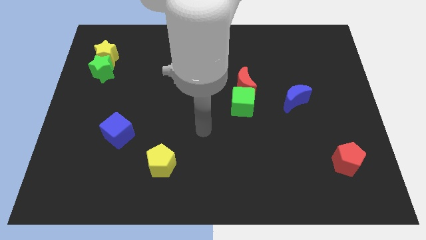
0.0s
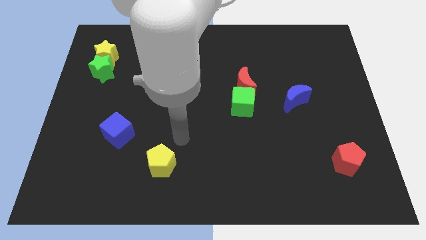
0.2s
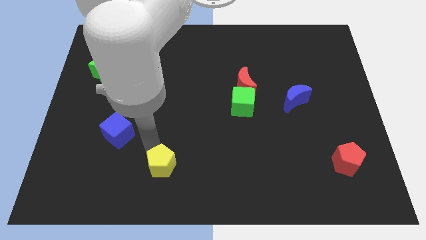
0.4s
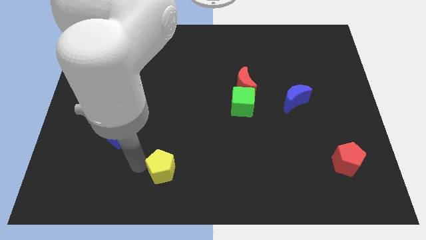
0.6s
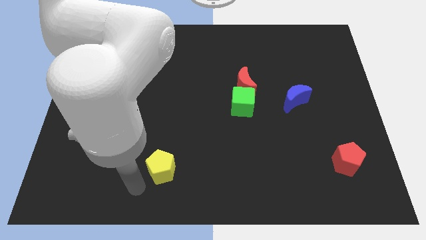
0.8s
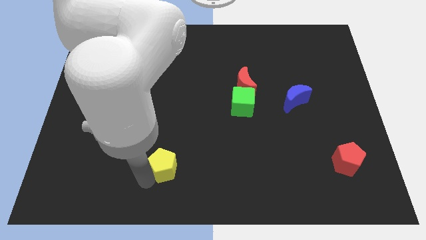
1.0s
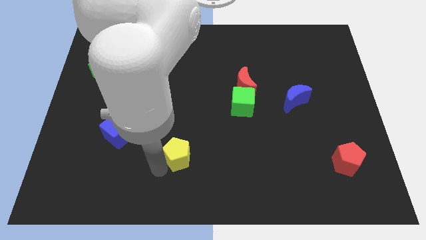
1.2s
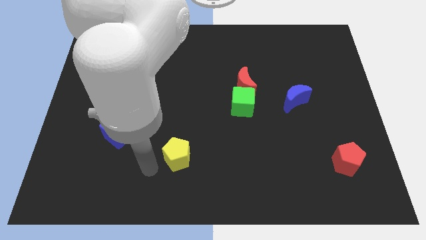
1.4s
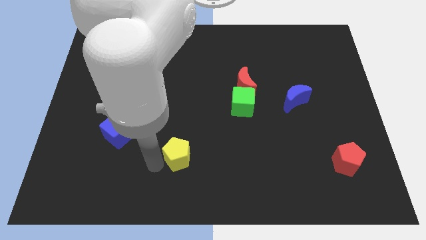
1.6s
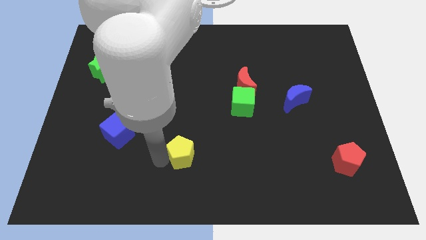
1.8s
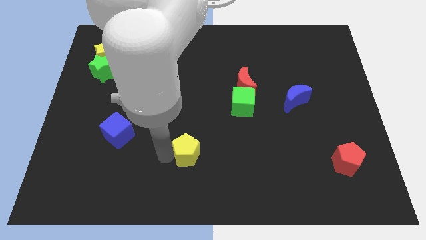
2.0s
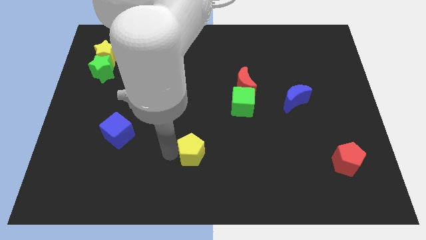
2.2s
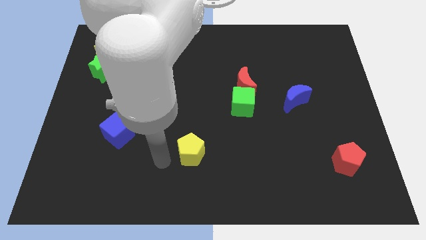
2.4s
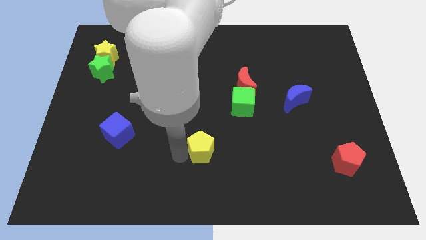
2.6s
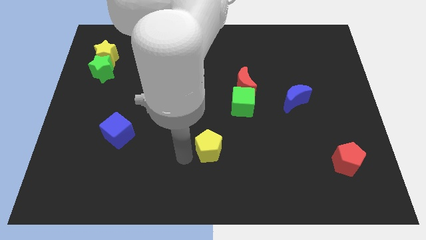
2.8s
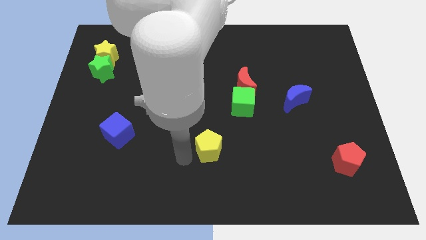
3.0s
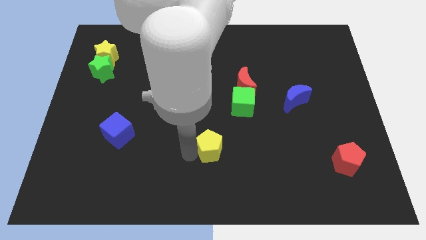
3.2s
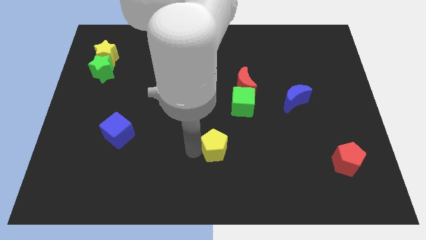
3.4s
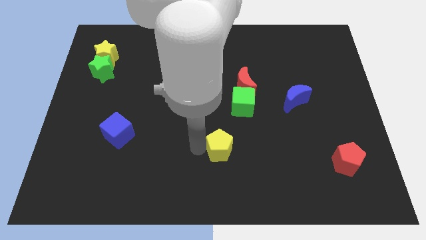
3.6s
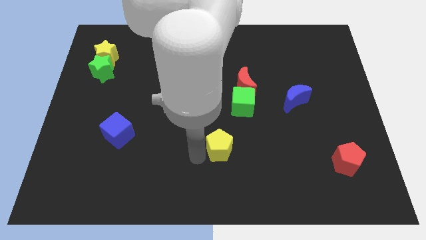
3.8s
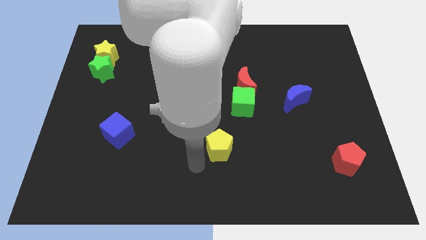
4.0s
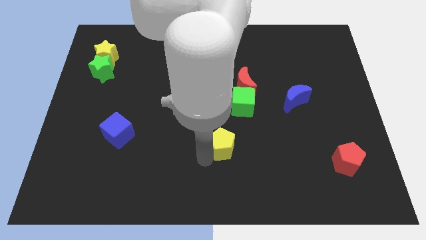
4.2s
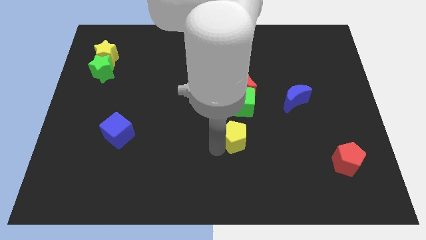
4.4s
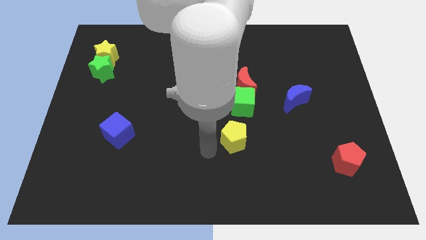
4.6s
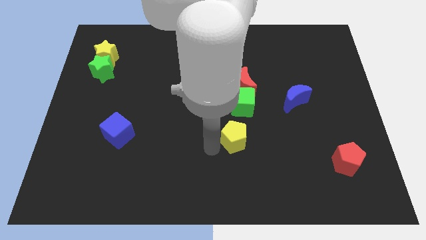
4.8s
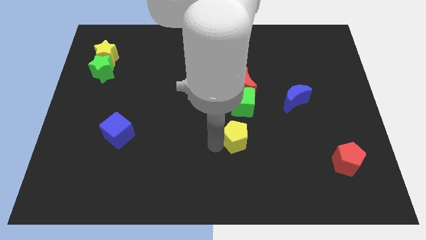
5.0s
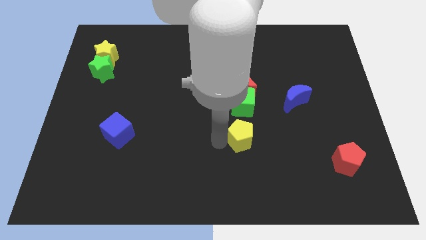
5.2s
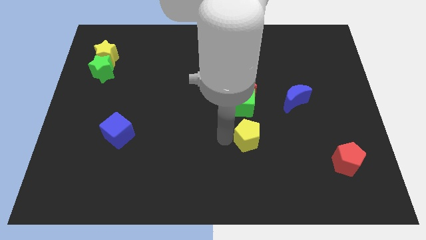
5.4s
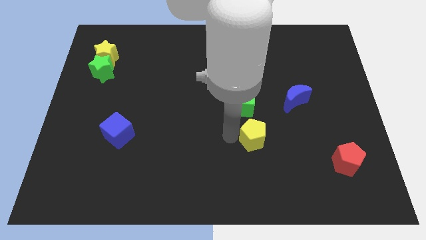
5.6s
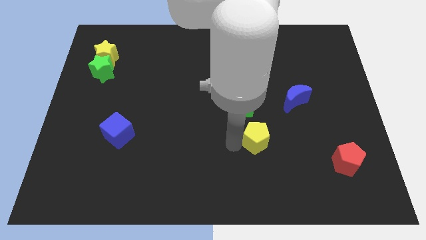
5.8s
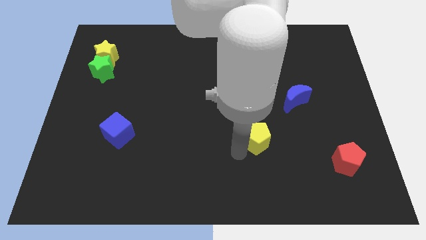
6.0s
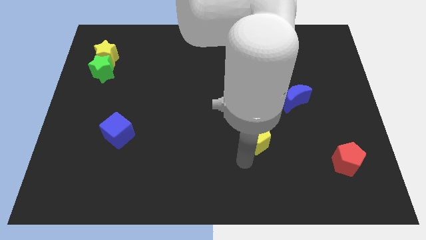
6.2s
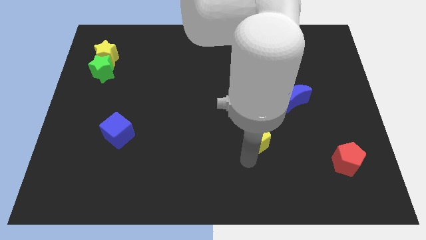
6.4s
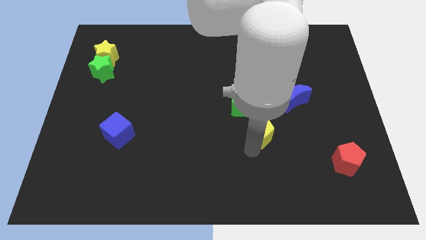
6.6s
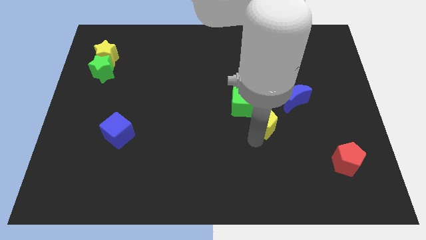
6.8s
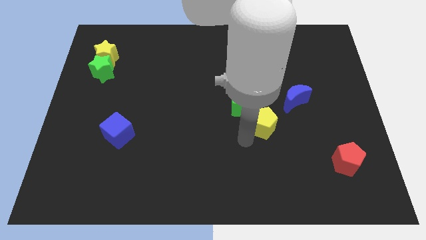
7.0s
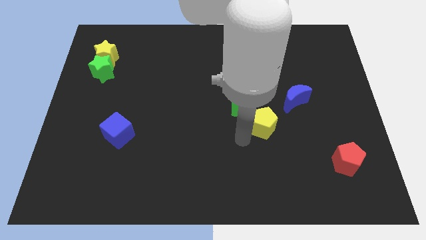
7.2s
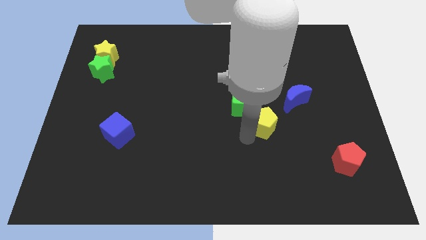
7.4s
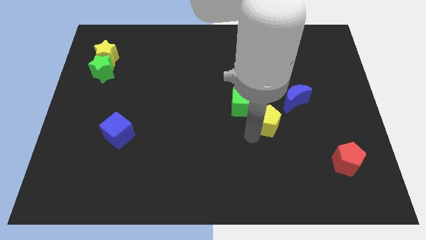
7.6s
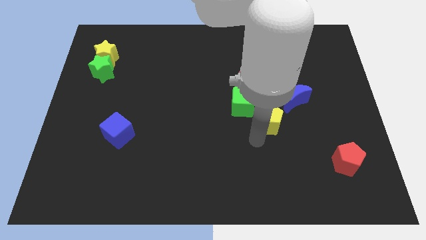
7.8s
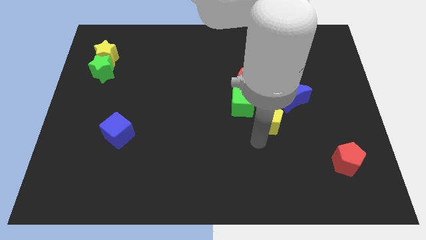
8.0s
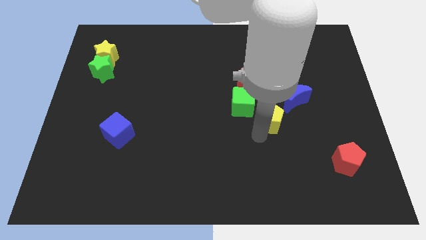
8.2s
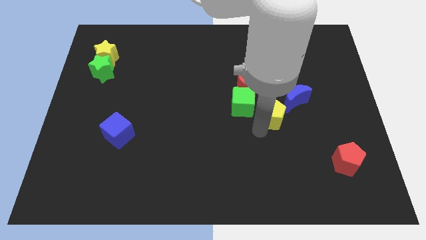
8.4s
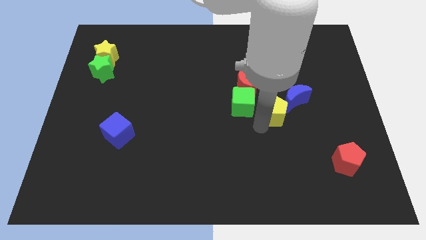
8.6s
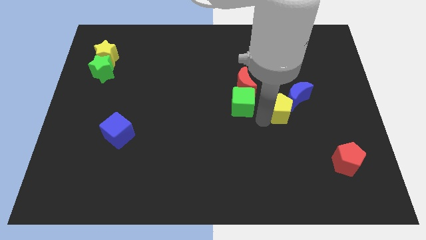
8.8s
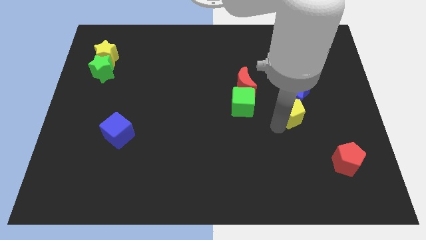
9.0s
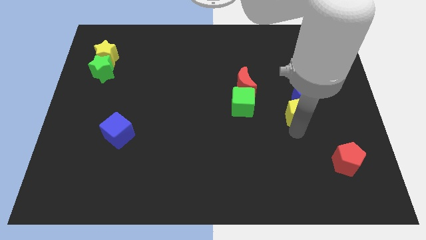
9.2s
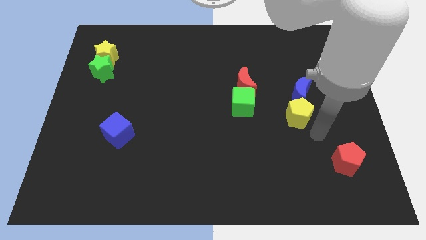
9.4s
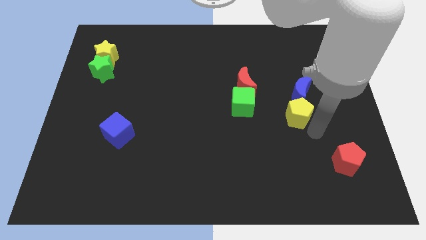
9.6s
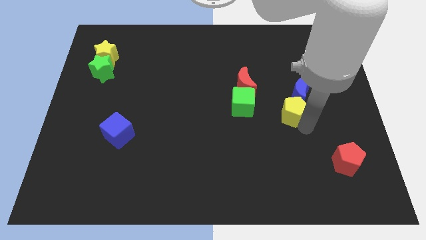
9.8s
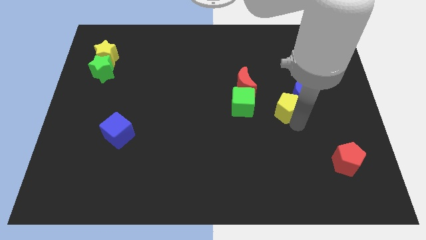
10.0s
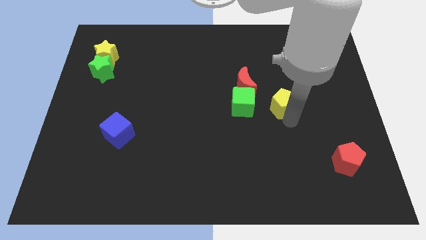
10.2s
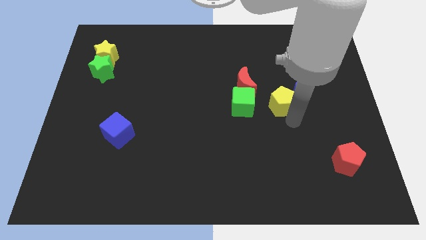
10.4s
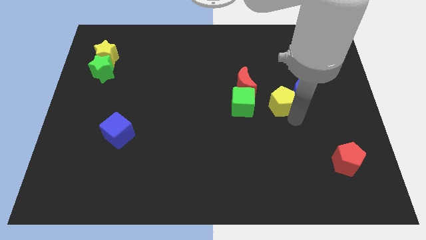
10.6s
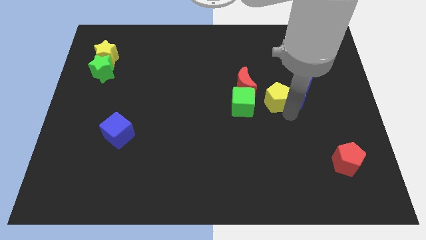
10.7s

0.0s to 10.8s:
slide the yellow pentagon to the right of the red moon

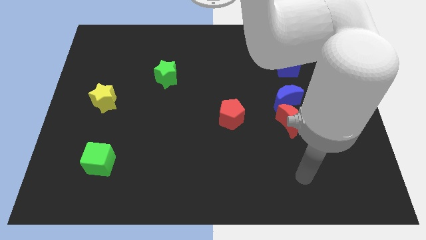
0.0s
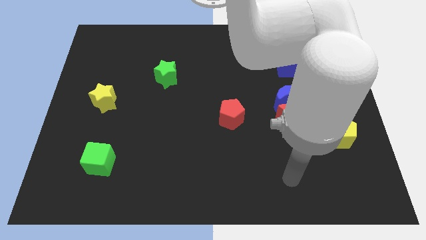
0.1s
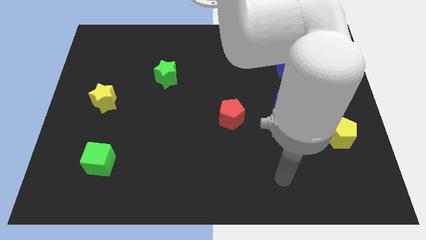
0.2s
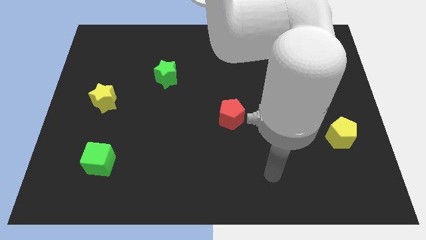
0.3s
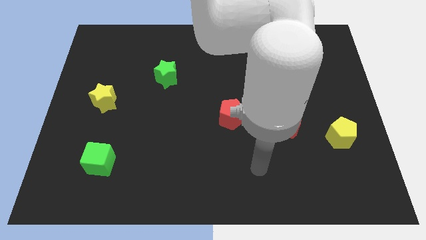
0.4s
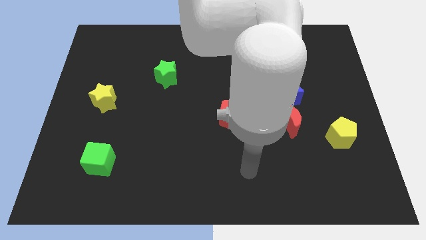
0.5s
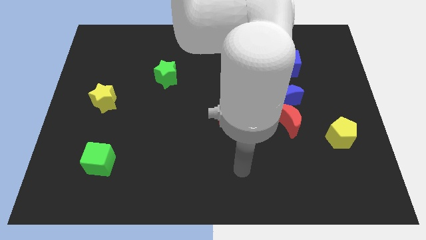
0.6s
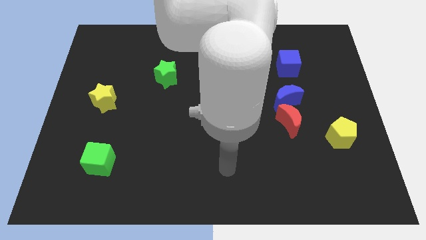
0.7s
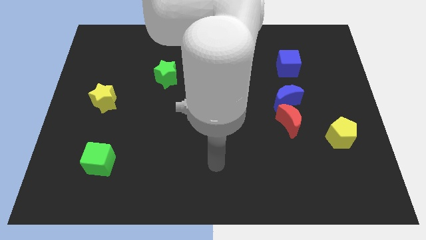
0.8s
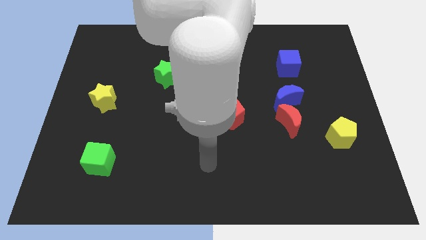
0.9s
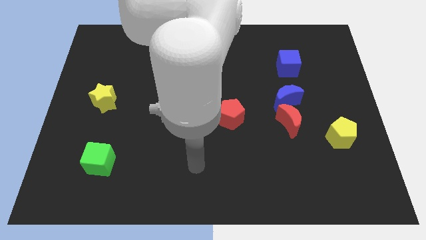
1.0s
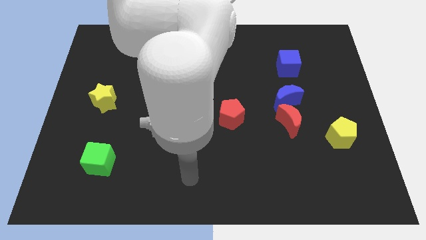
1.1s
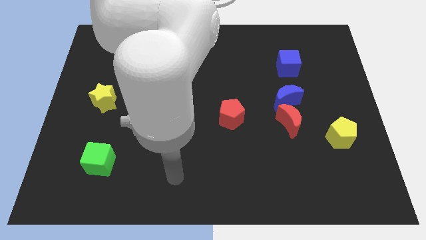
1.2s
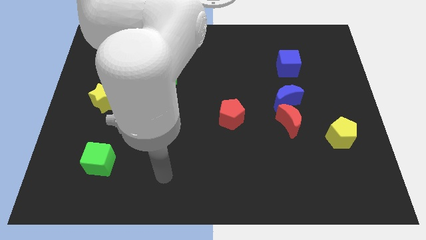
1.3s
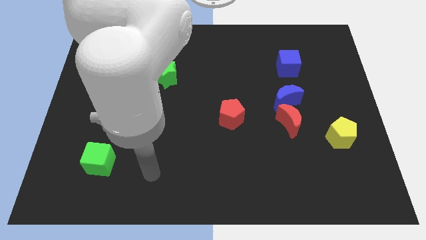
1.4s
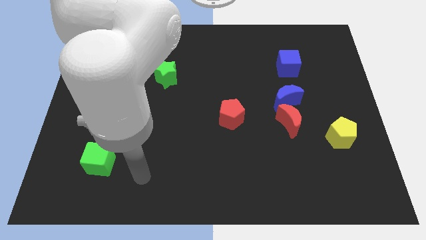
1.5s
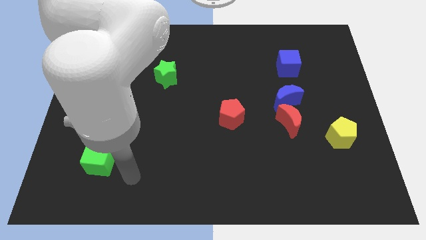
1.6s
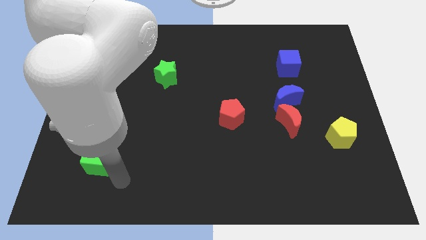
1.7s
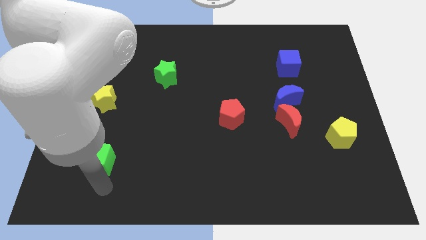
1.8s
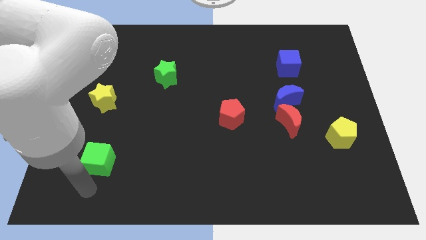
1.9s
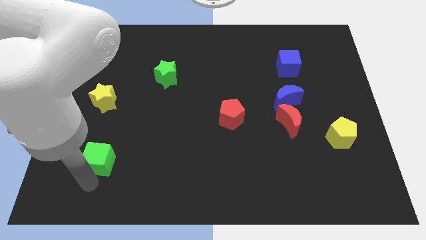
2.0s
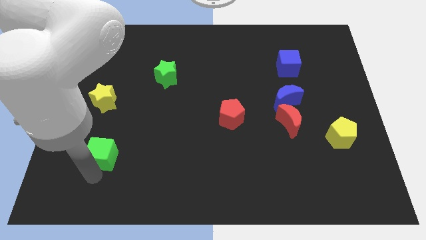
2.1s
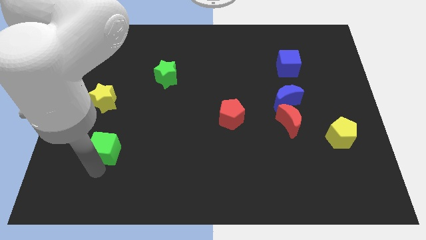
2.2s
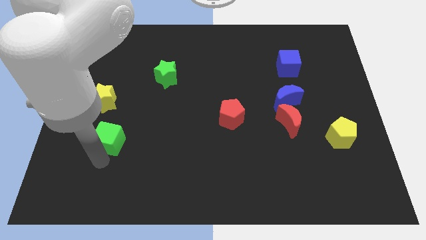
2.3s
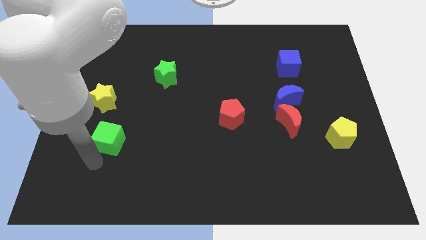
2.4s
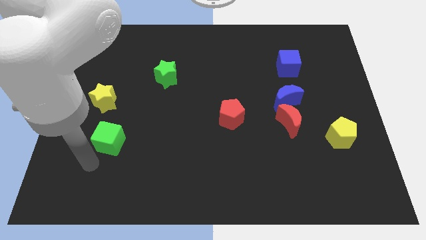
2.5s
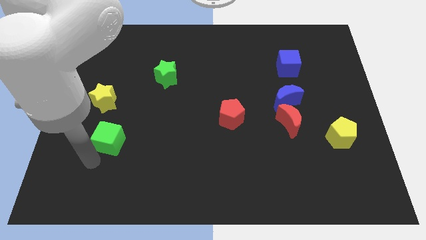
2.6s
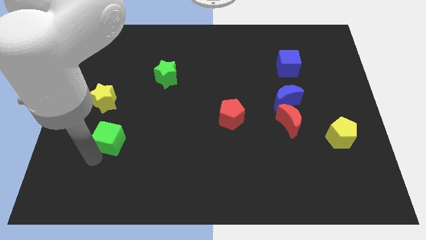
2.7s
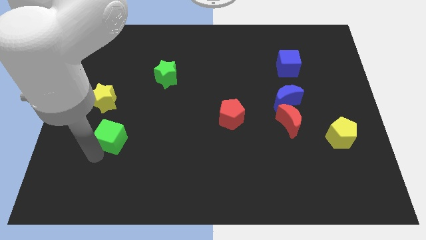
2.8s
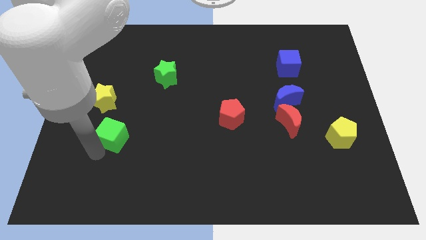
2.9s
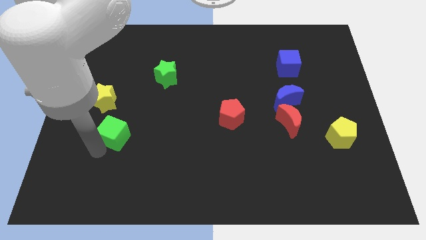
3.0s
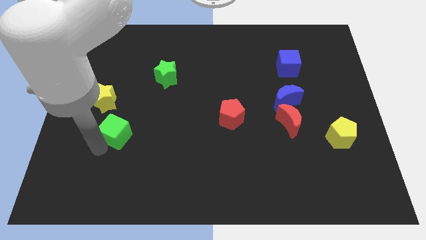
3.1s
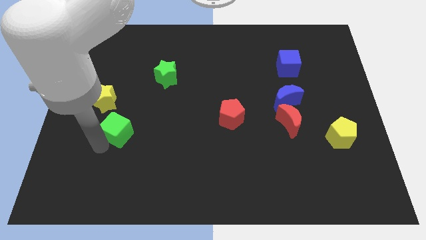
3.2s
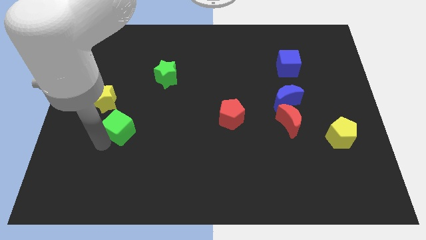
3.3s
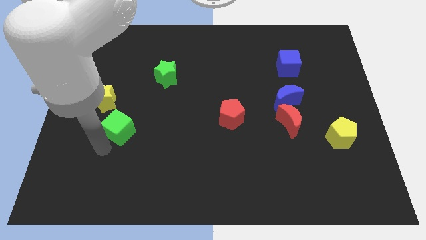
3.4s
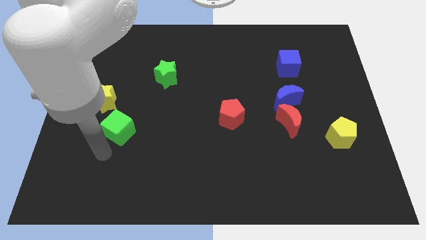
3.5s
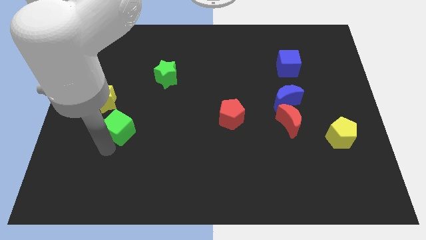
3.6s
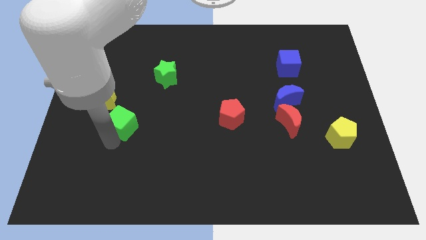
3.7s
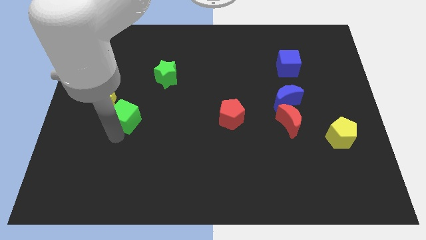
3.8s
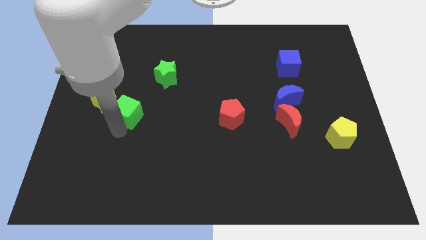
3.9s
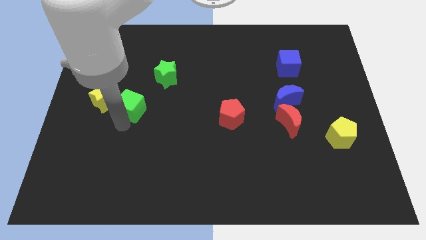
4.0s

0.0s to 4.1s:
slide the green cube to the bottom left of the green star
